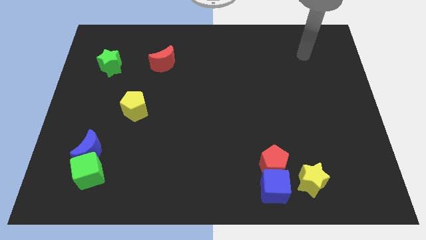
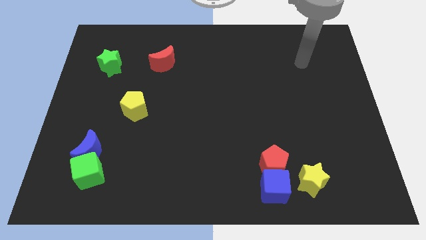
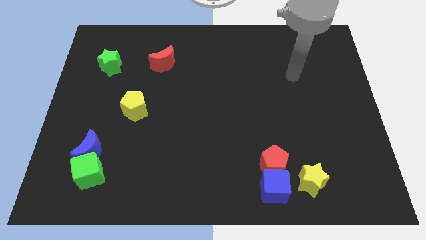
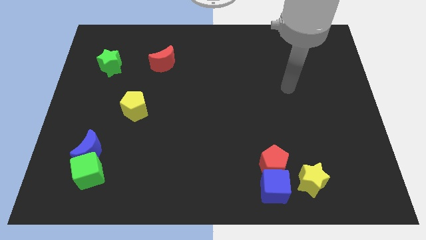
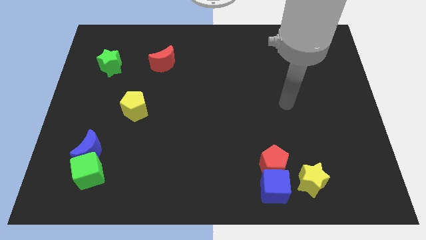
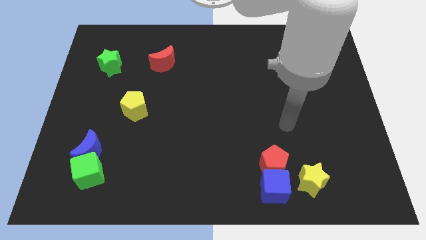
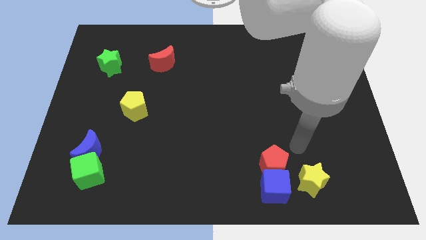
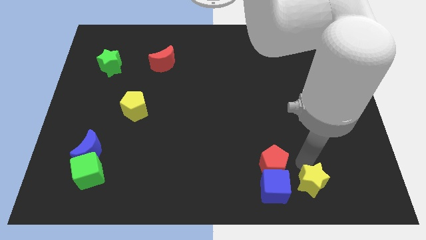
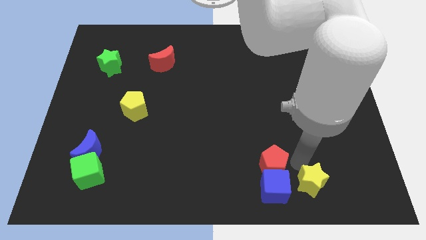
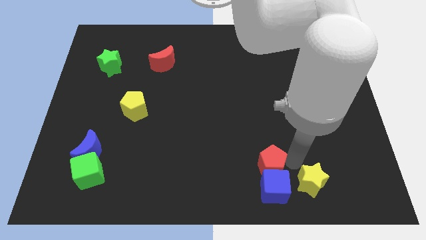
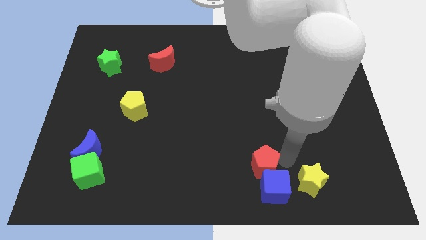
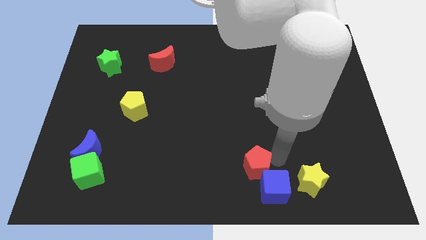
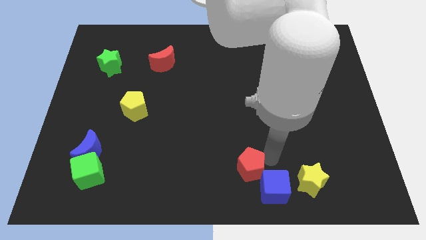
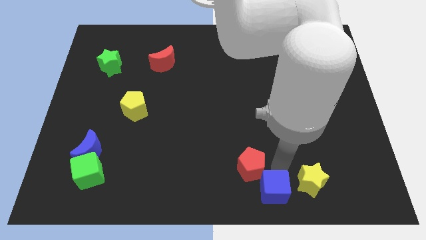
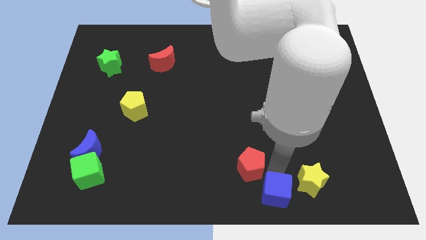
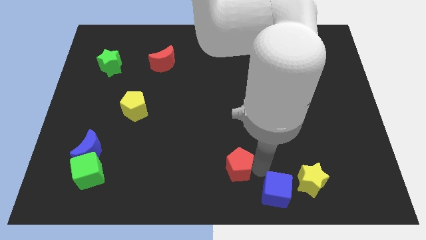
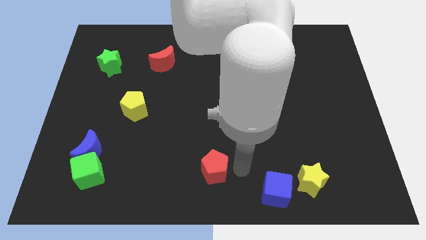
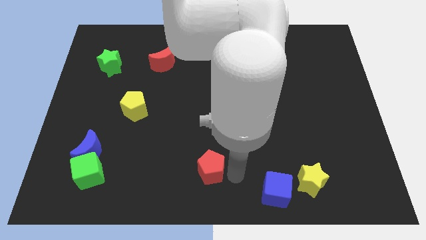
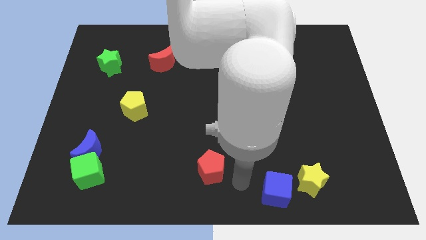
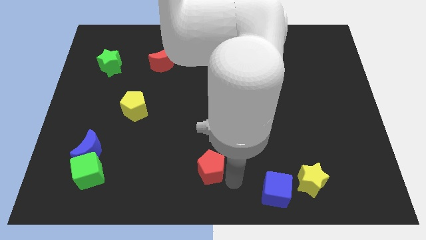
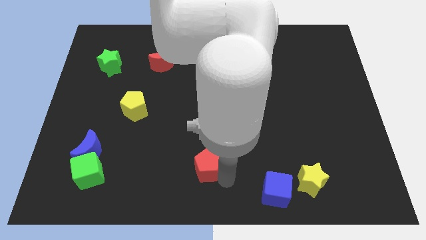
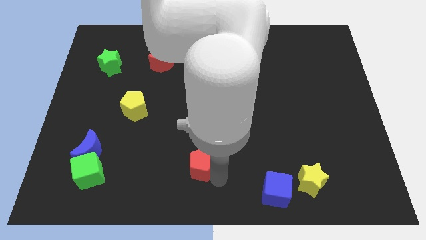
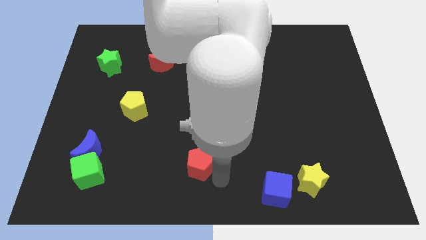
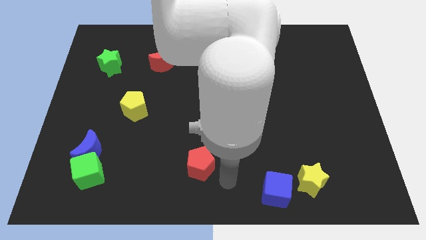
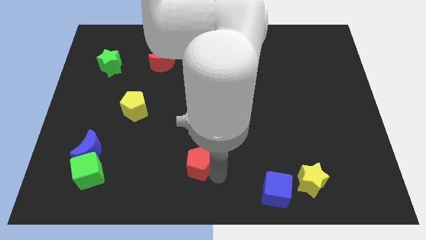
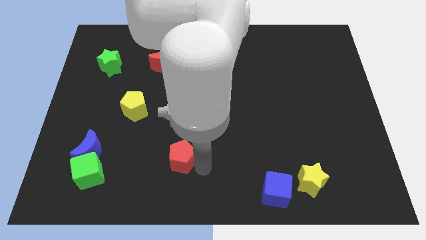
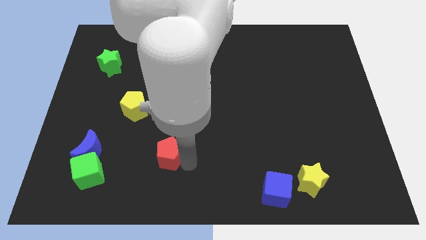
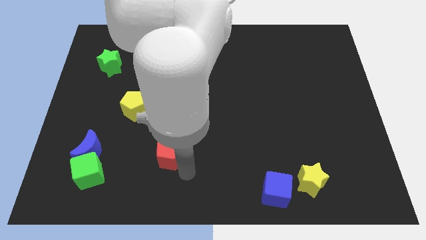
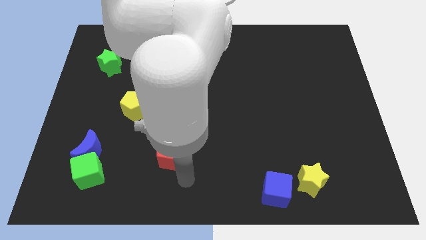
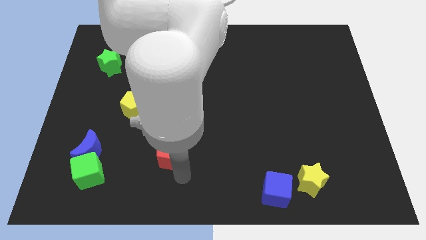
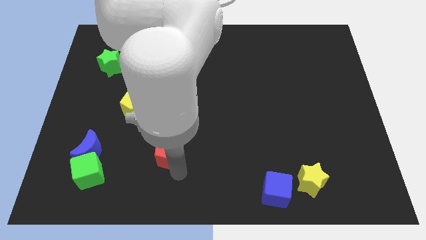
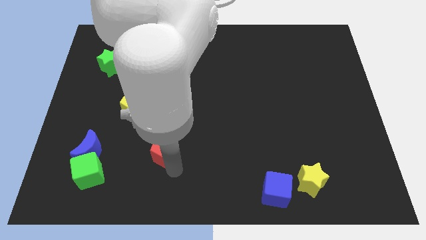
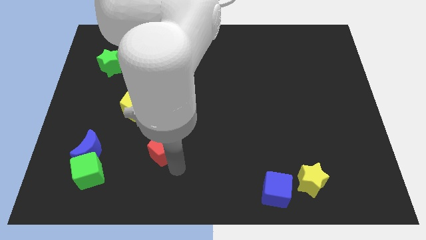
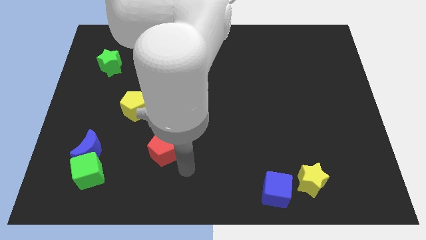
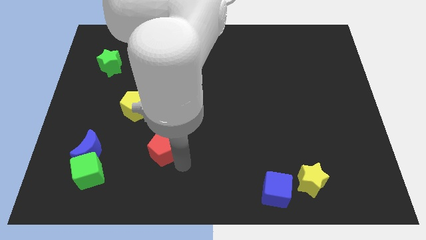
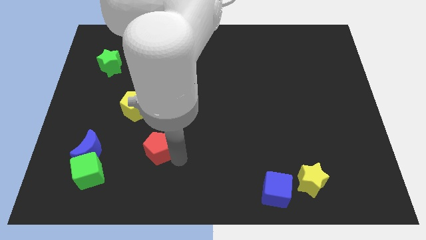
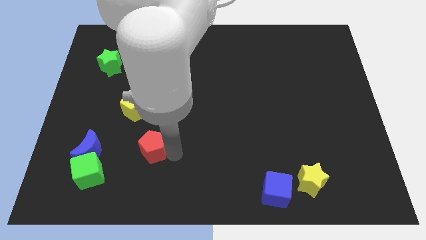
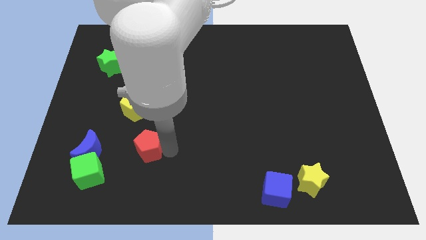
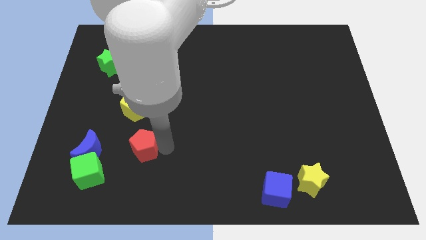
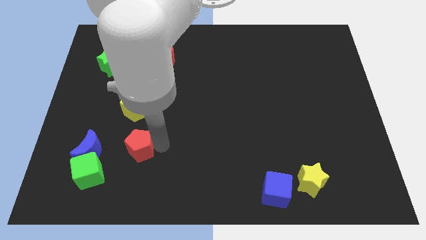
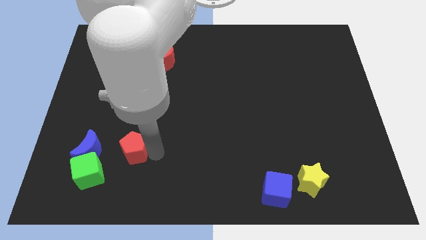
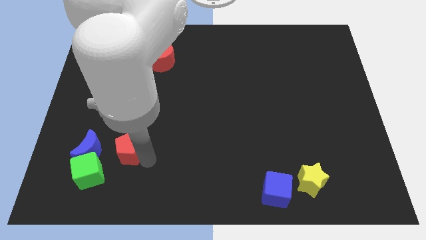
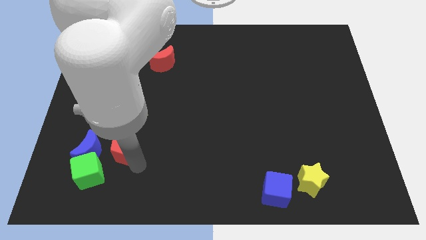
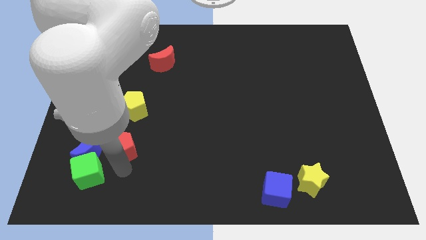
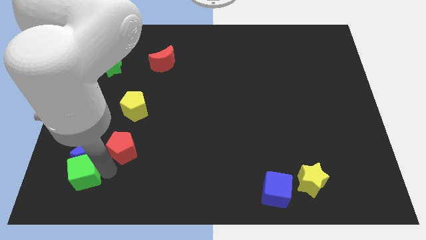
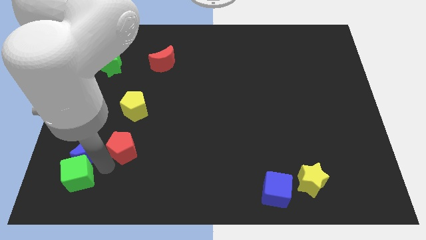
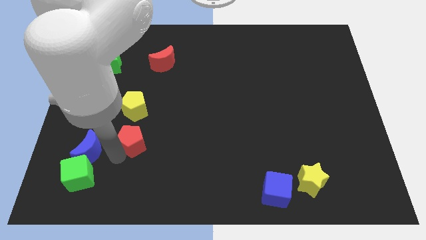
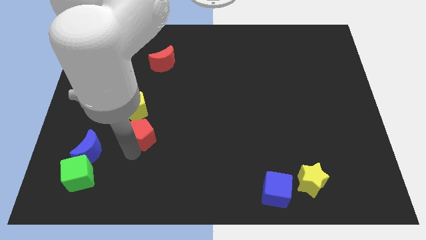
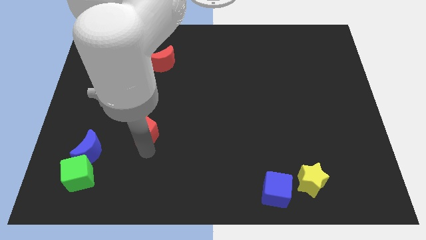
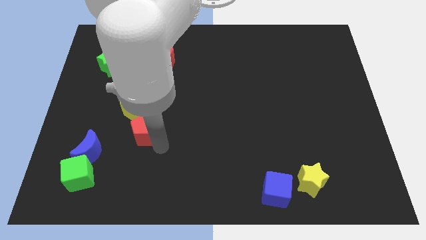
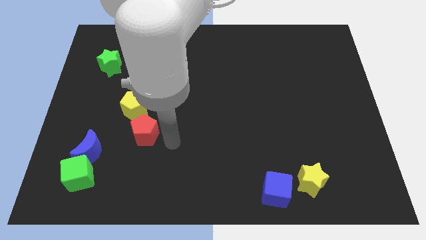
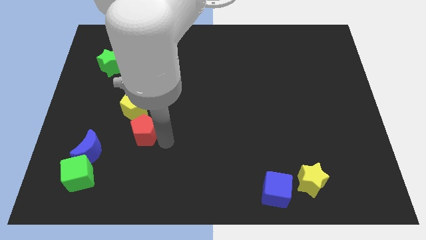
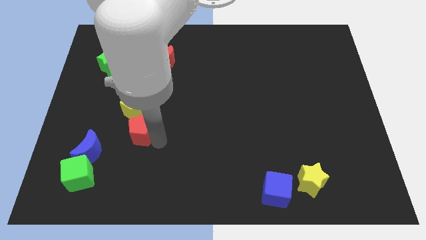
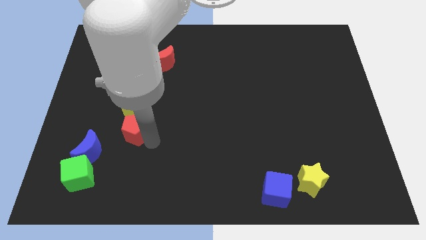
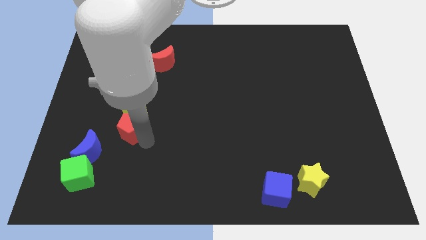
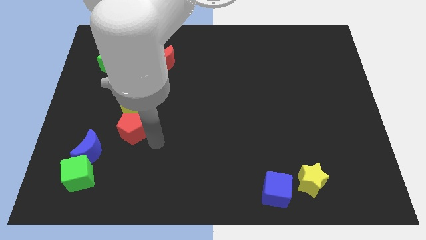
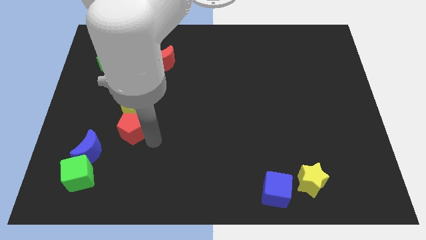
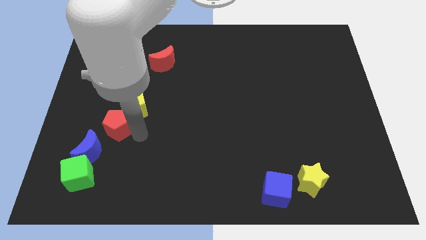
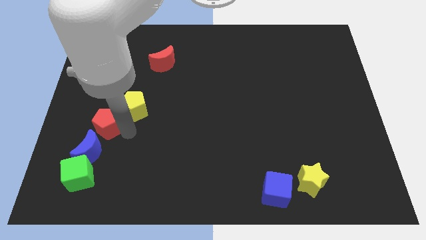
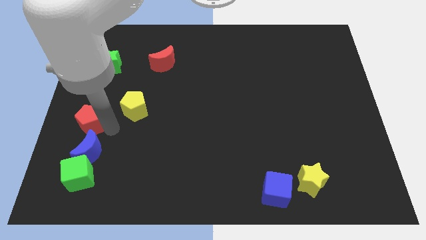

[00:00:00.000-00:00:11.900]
put the red pentagon to the center left

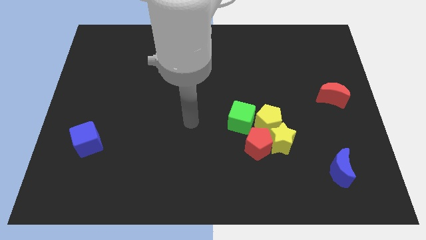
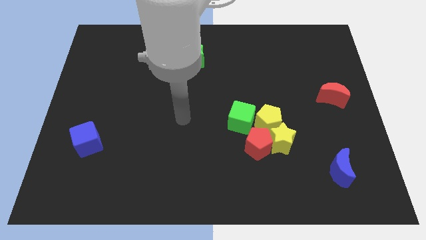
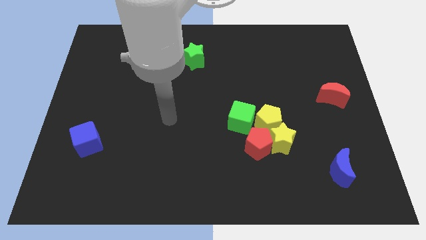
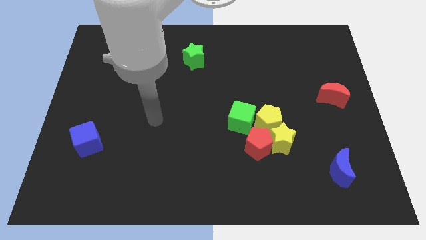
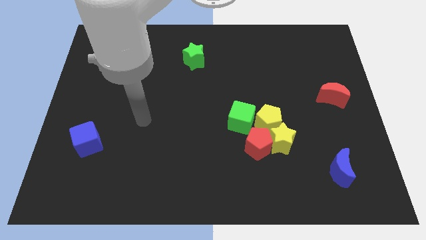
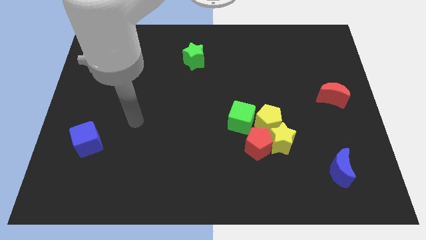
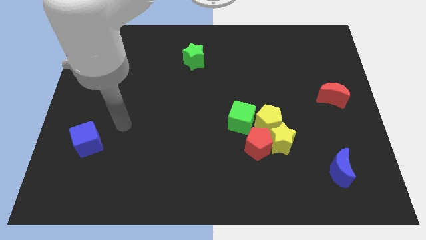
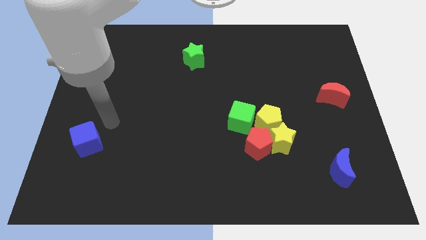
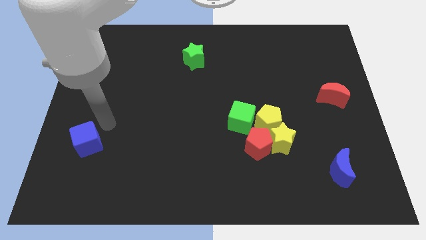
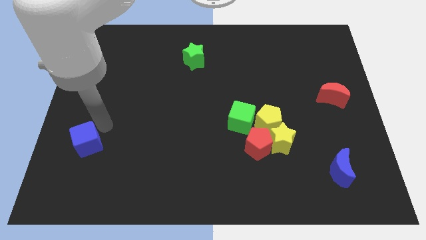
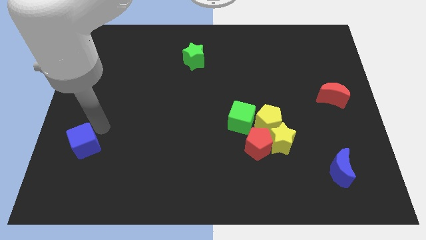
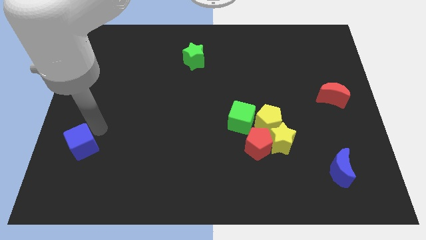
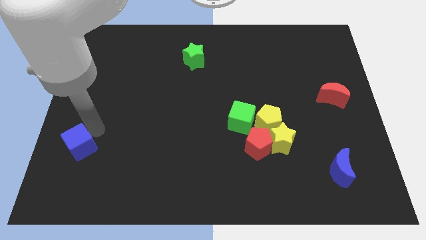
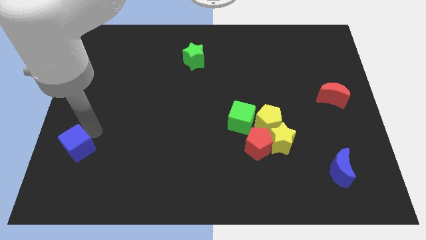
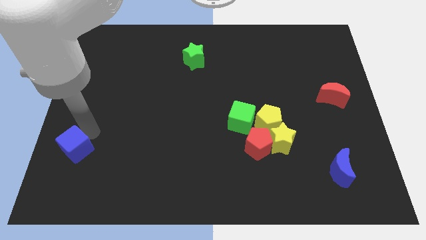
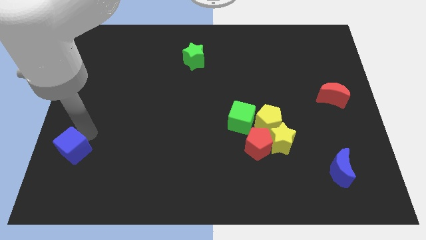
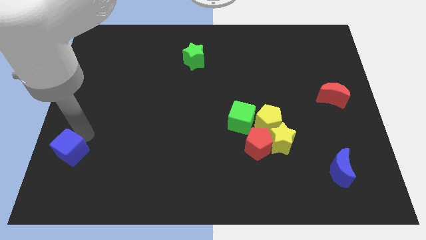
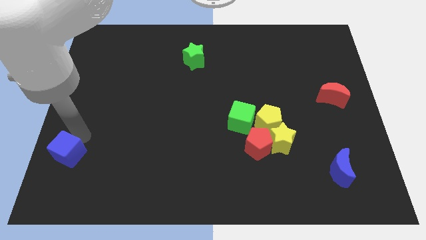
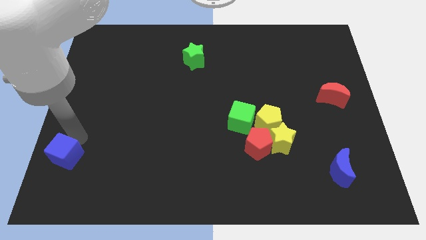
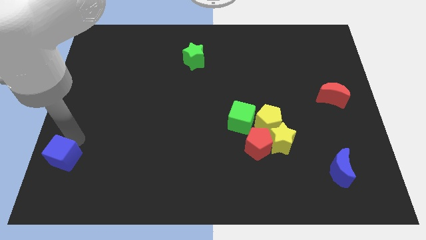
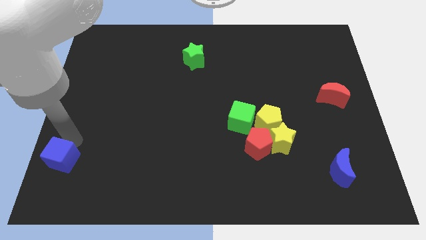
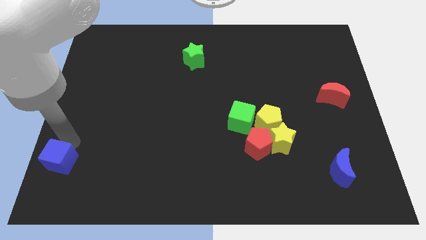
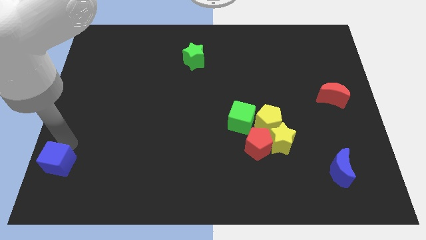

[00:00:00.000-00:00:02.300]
slide the blue cube to the bottom left corner

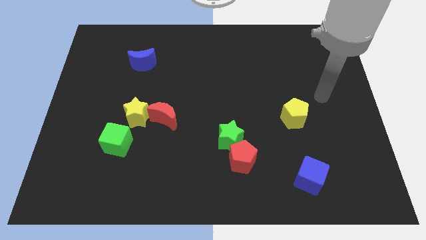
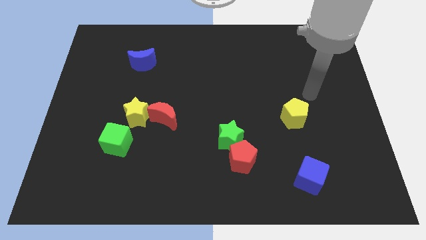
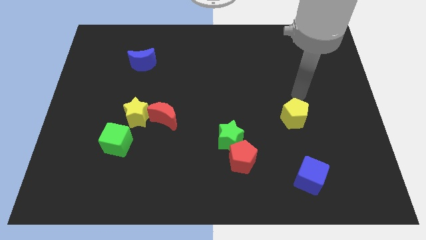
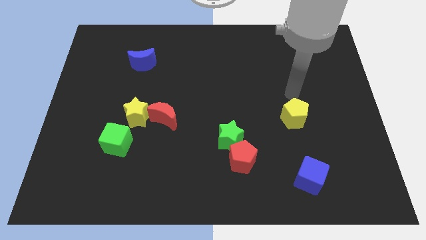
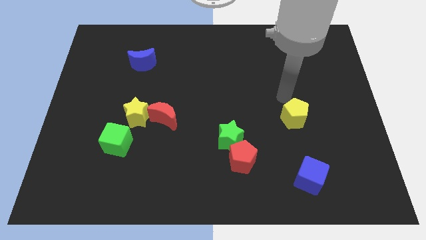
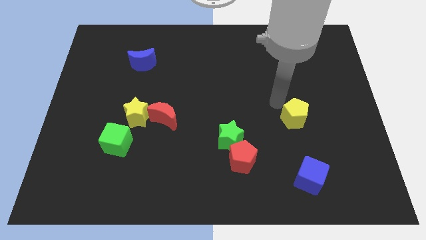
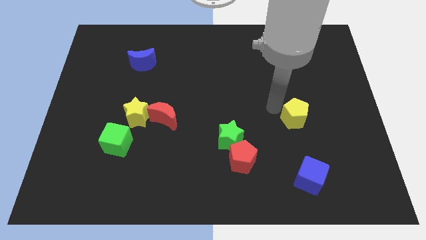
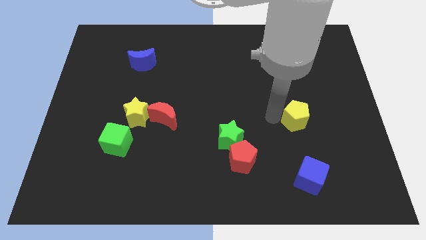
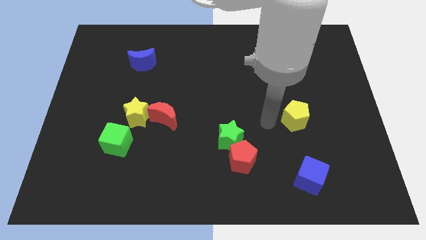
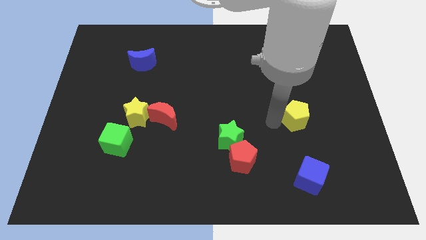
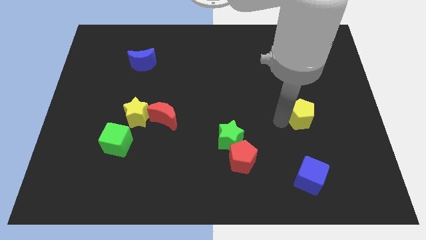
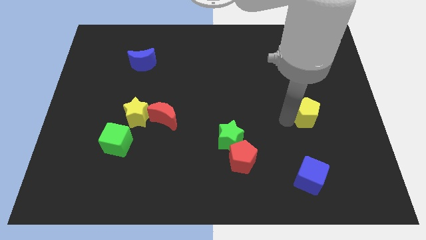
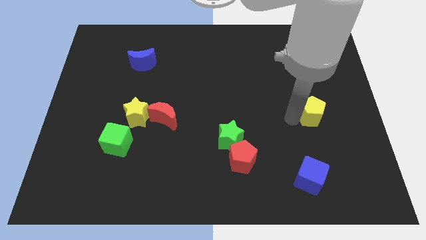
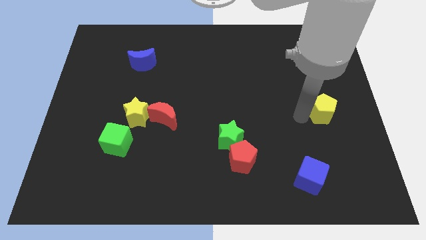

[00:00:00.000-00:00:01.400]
move the yellow pentagon to the center right
